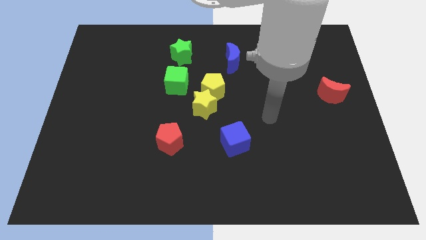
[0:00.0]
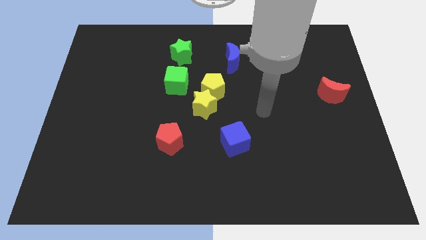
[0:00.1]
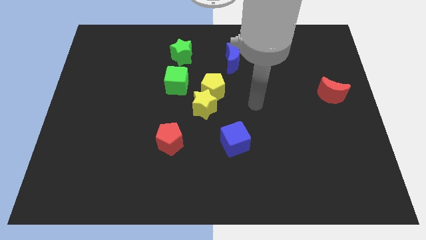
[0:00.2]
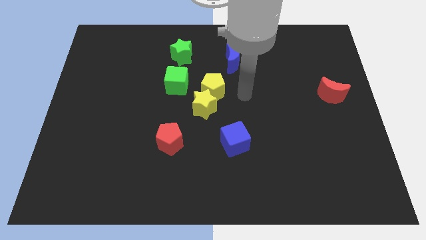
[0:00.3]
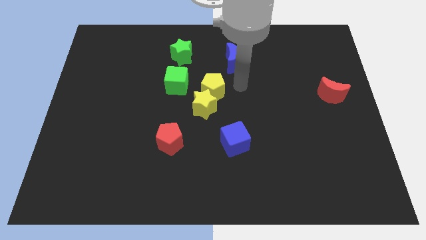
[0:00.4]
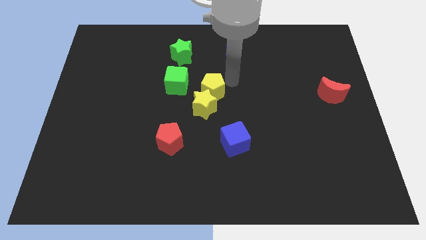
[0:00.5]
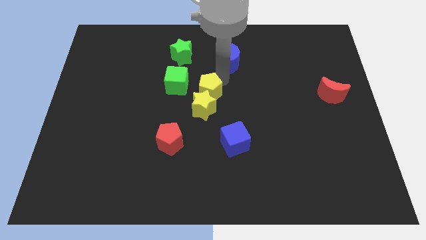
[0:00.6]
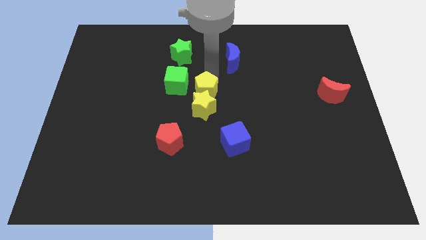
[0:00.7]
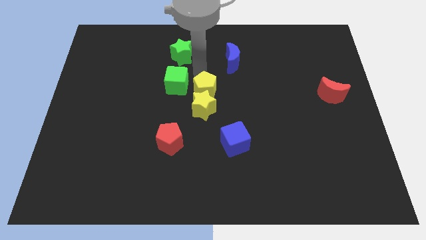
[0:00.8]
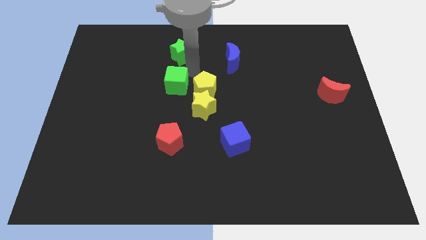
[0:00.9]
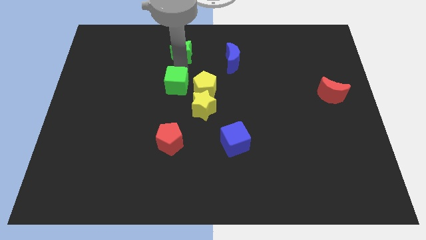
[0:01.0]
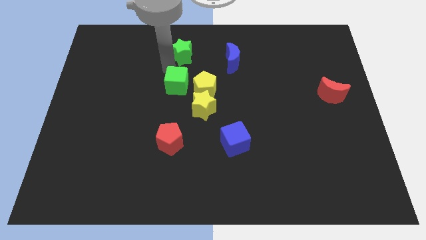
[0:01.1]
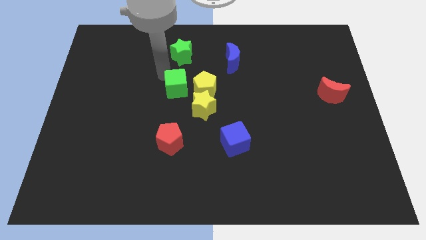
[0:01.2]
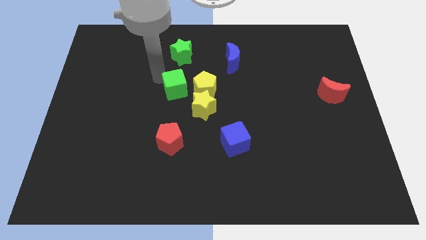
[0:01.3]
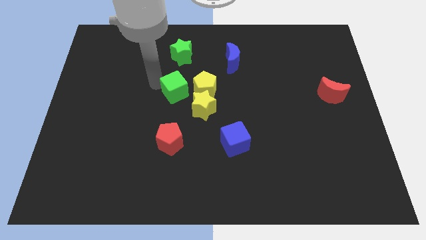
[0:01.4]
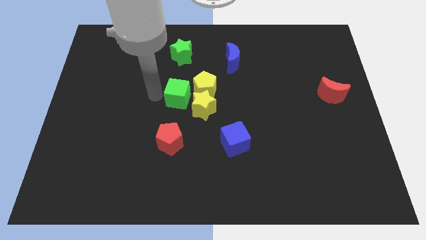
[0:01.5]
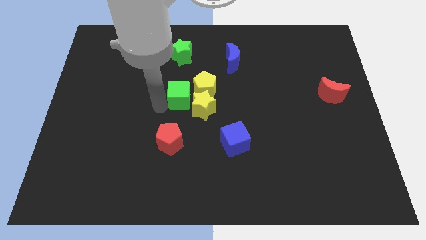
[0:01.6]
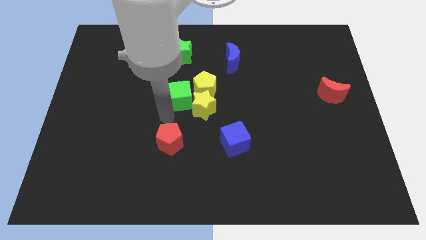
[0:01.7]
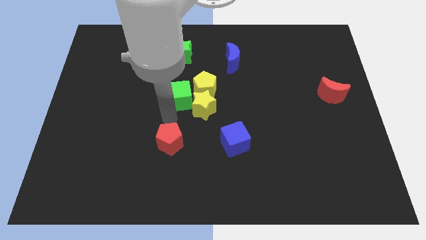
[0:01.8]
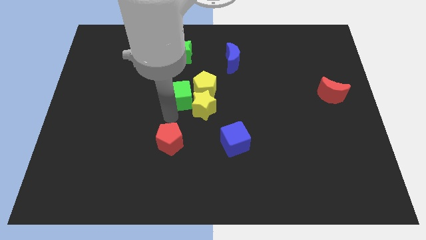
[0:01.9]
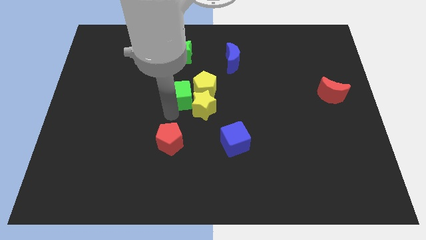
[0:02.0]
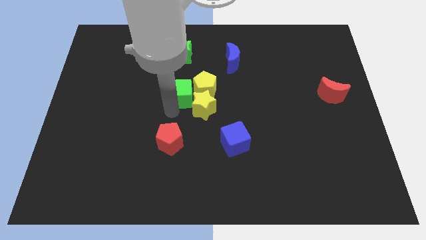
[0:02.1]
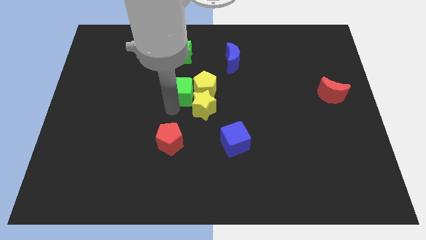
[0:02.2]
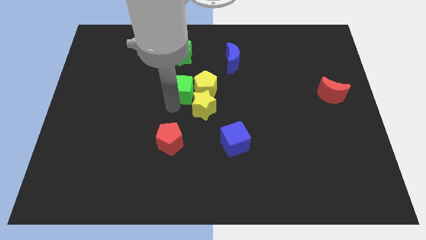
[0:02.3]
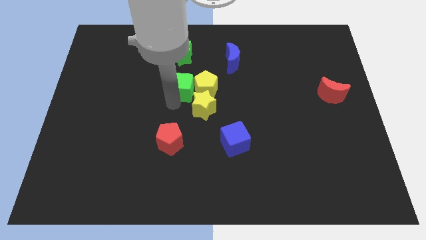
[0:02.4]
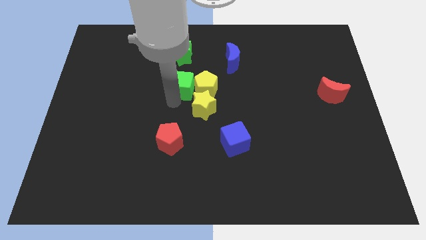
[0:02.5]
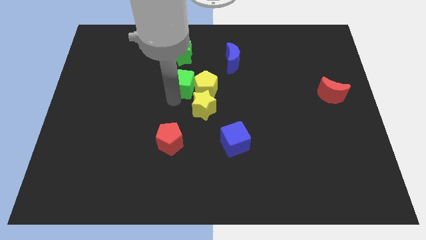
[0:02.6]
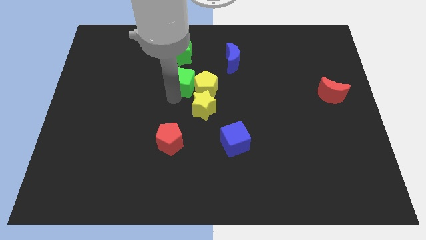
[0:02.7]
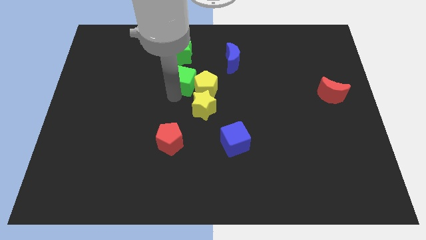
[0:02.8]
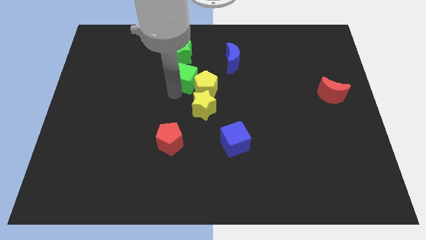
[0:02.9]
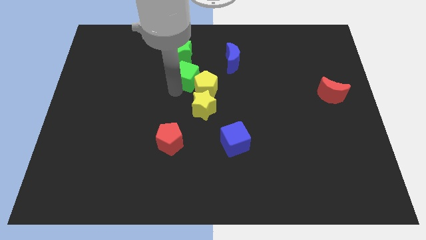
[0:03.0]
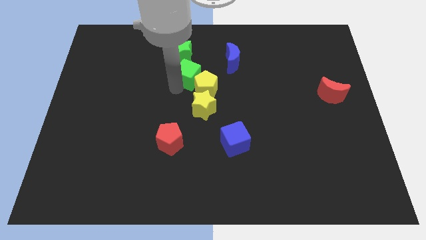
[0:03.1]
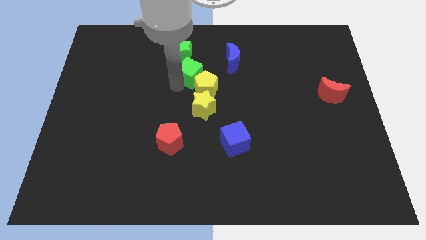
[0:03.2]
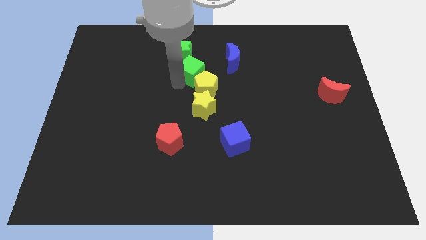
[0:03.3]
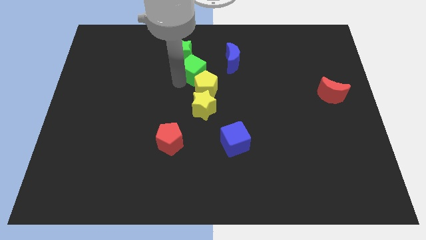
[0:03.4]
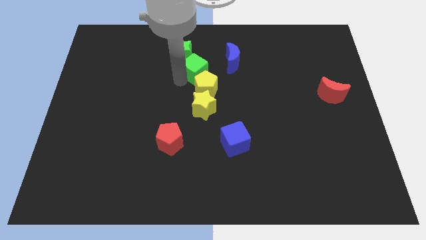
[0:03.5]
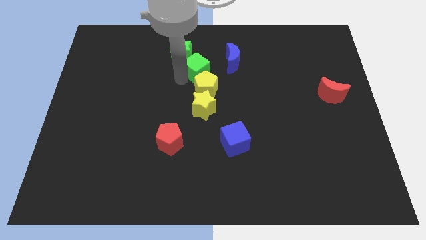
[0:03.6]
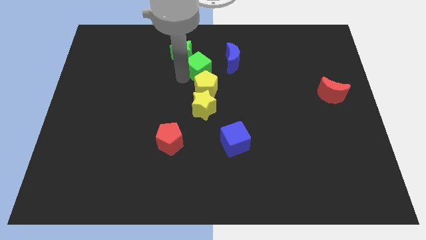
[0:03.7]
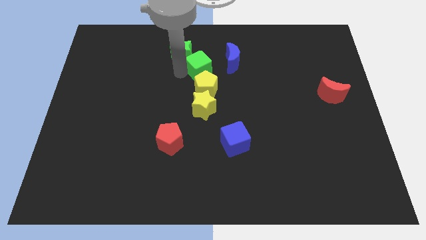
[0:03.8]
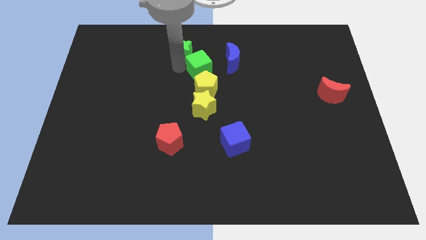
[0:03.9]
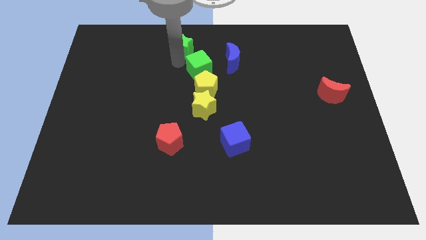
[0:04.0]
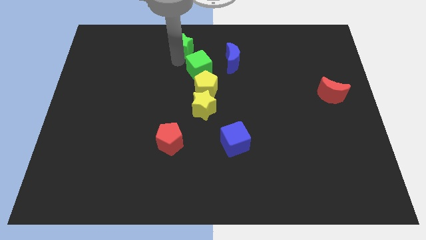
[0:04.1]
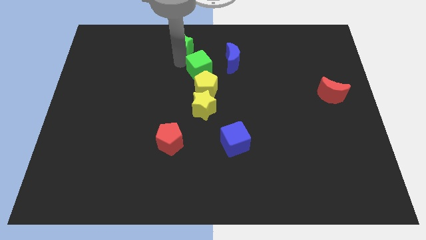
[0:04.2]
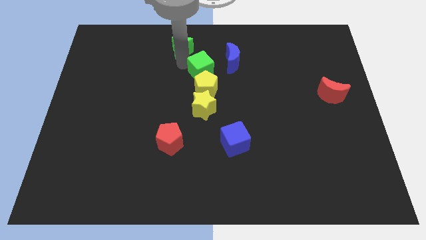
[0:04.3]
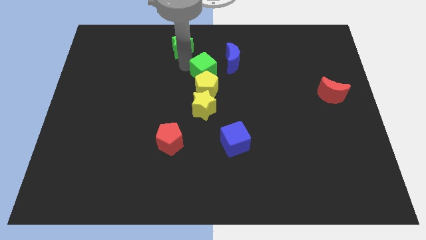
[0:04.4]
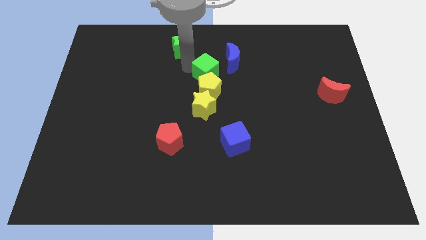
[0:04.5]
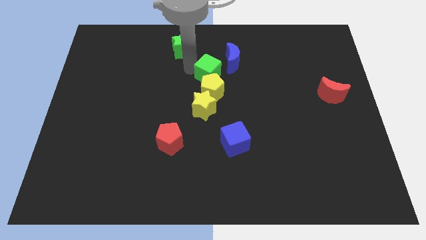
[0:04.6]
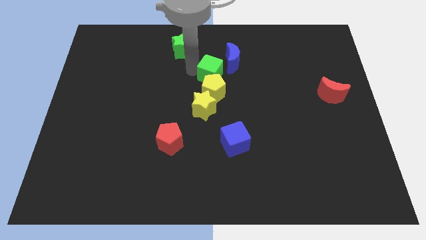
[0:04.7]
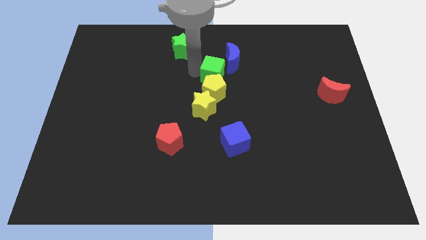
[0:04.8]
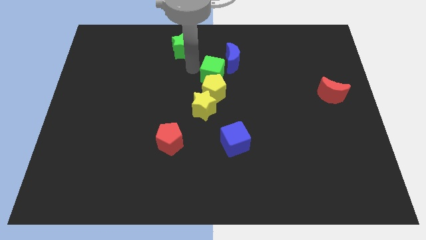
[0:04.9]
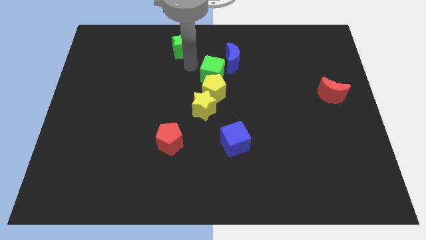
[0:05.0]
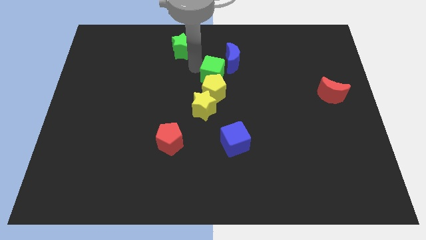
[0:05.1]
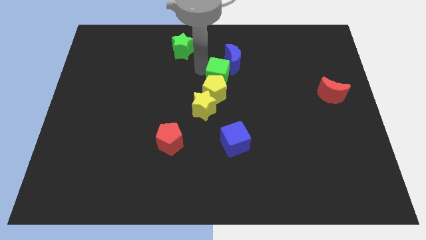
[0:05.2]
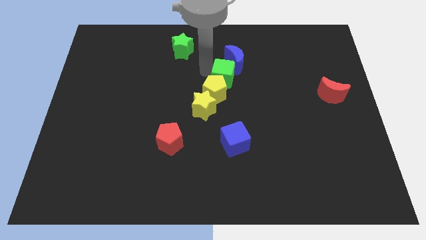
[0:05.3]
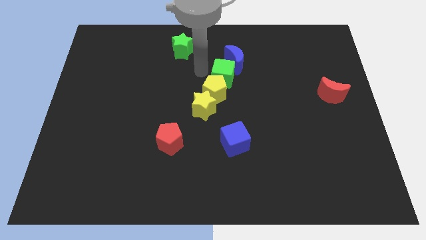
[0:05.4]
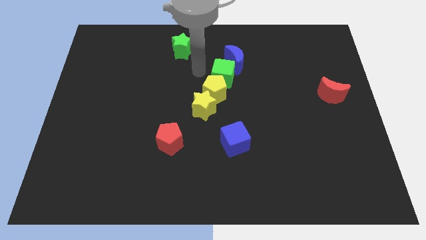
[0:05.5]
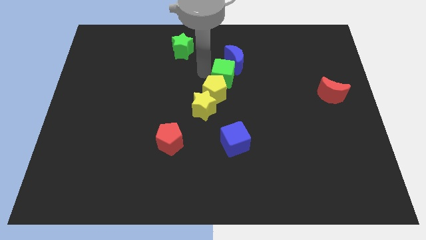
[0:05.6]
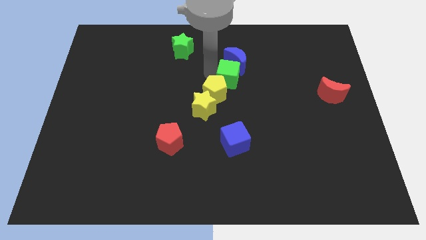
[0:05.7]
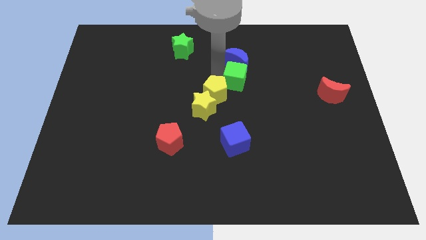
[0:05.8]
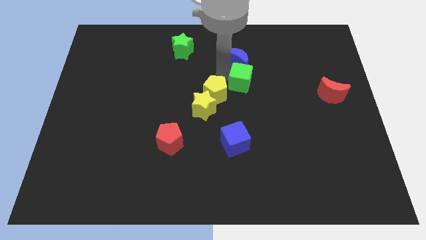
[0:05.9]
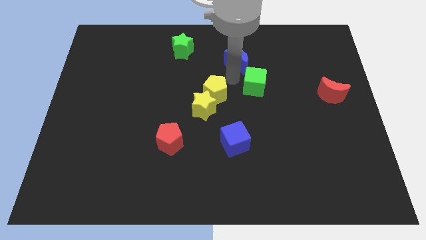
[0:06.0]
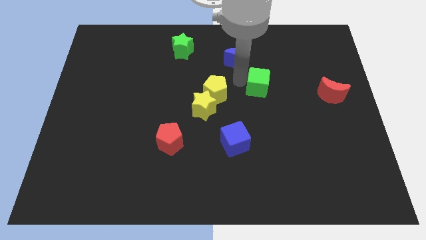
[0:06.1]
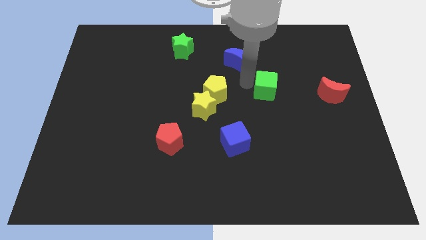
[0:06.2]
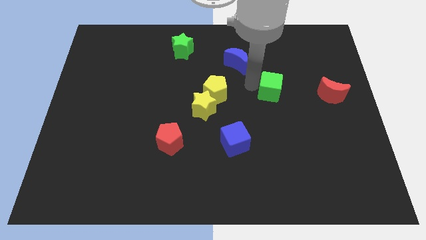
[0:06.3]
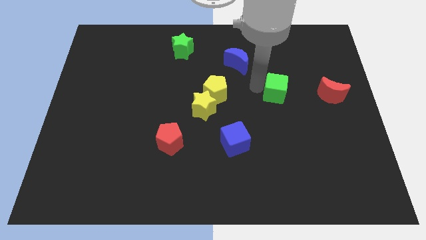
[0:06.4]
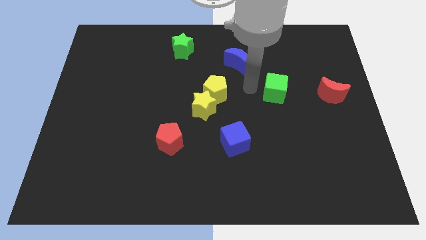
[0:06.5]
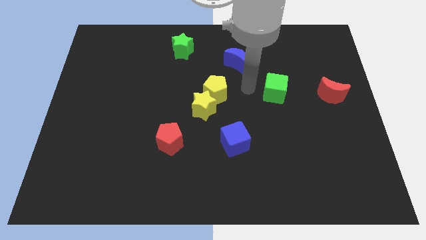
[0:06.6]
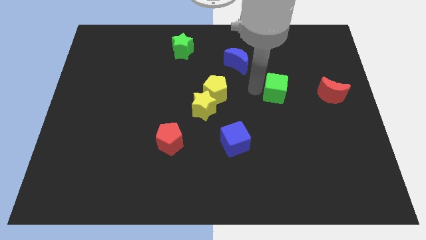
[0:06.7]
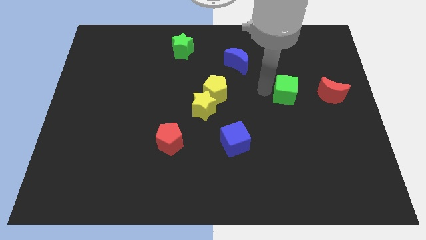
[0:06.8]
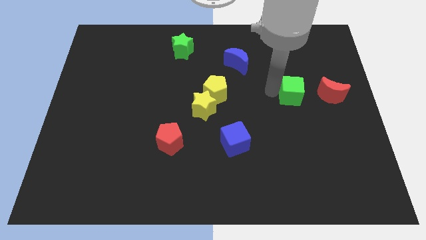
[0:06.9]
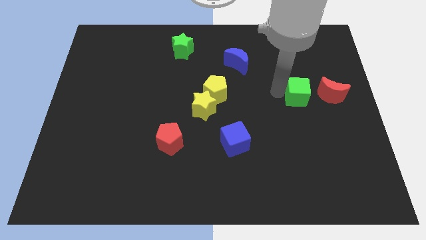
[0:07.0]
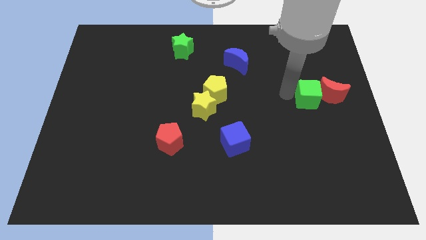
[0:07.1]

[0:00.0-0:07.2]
push the green cube to the red moon
